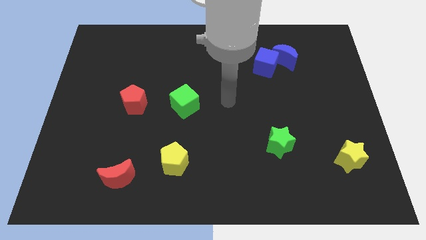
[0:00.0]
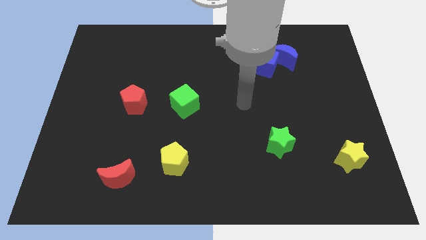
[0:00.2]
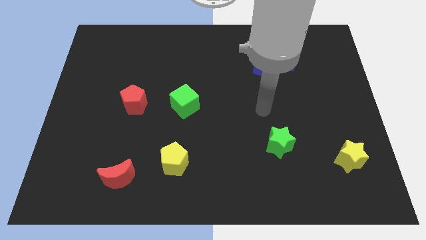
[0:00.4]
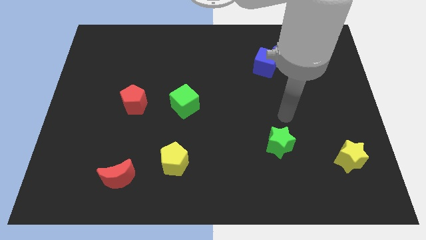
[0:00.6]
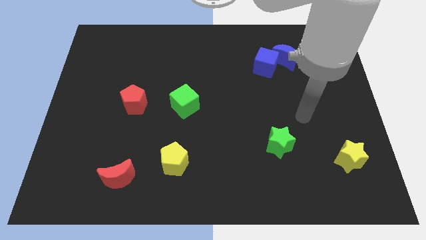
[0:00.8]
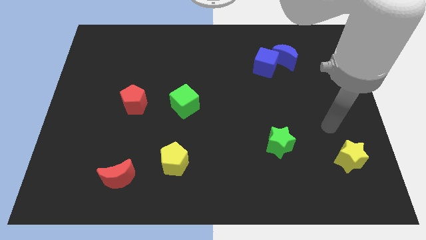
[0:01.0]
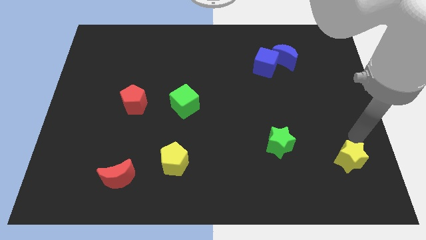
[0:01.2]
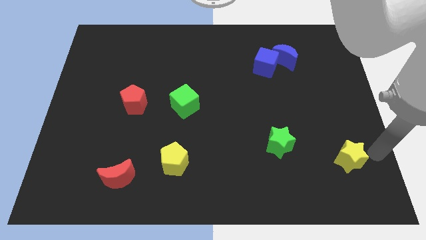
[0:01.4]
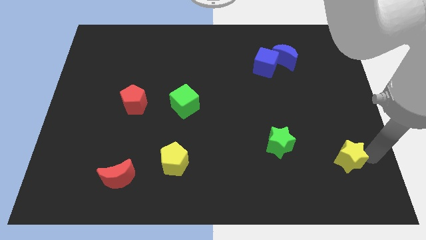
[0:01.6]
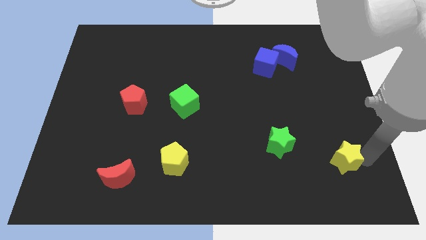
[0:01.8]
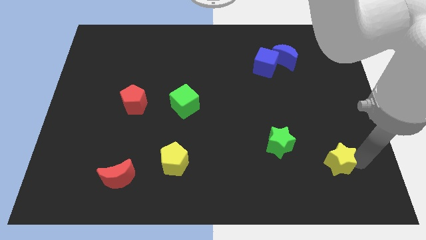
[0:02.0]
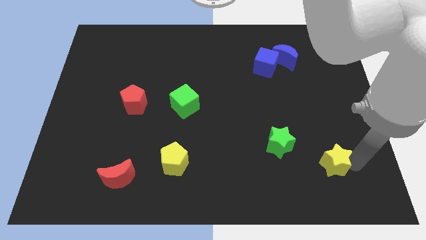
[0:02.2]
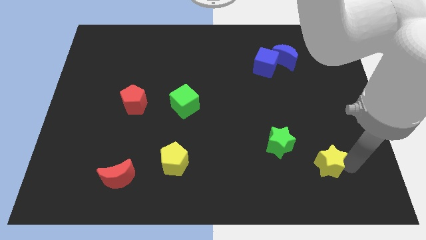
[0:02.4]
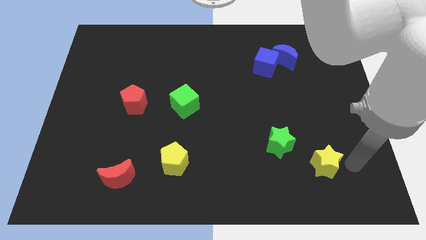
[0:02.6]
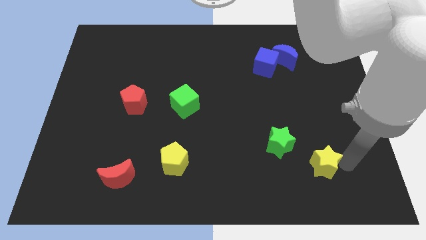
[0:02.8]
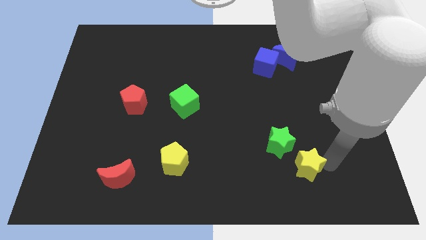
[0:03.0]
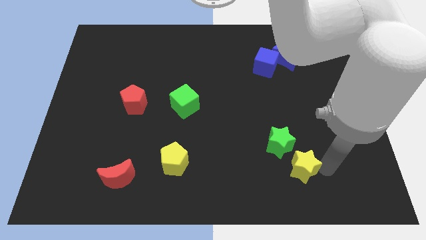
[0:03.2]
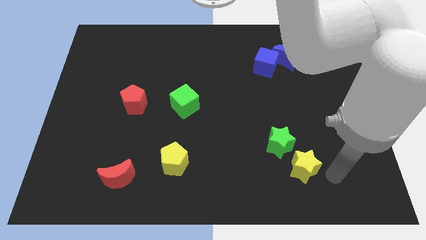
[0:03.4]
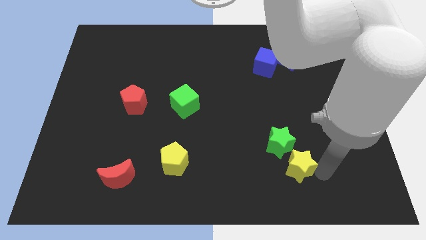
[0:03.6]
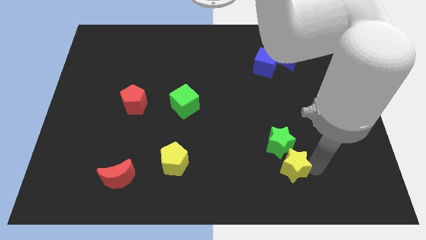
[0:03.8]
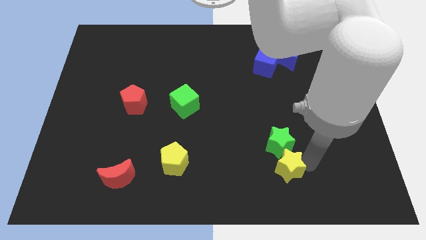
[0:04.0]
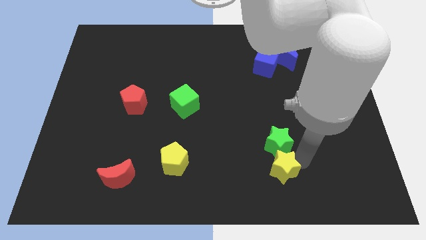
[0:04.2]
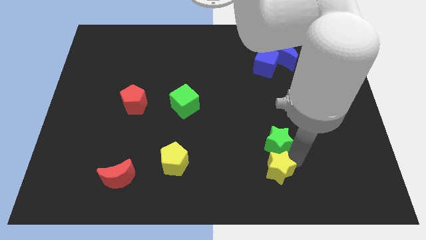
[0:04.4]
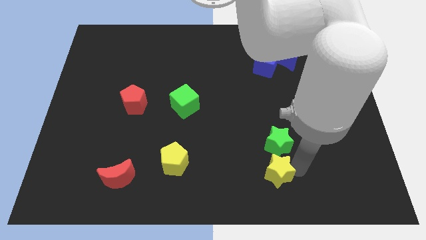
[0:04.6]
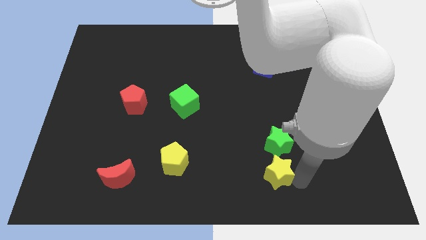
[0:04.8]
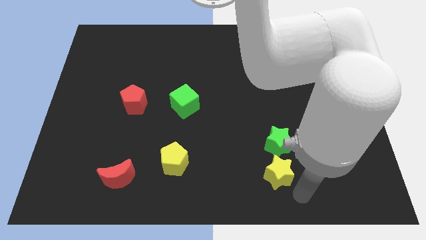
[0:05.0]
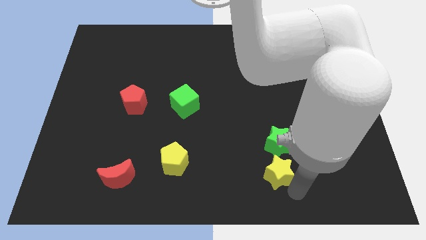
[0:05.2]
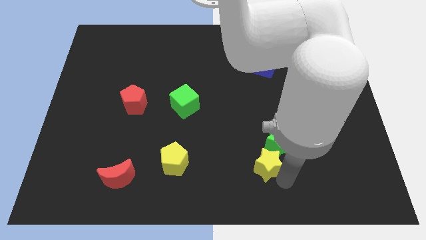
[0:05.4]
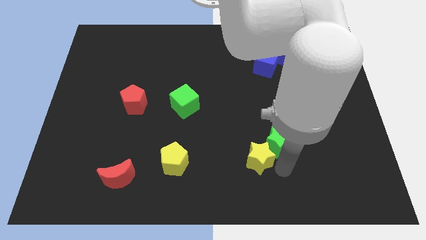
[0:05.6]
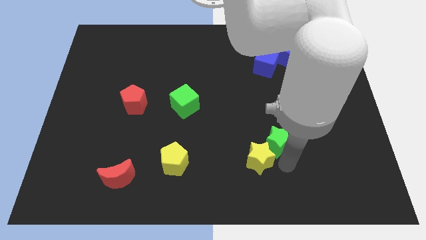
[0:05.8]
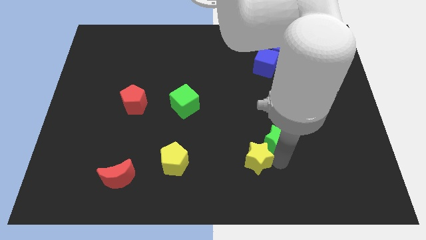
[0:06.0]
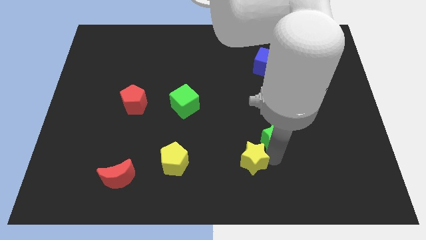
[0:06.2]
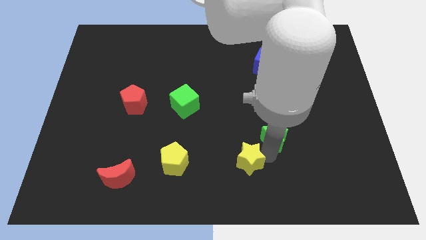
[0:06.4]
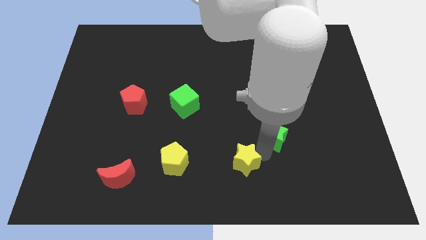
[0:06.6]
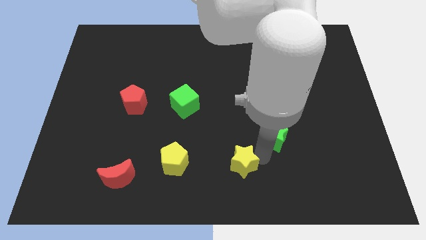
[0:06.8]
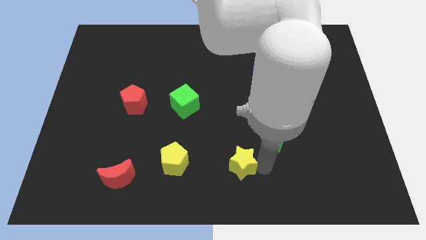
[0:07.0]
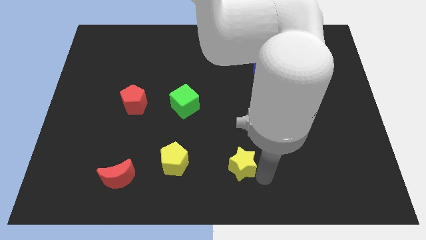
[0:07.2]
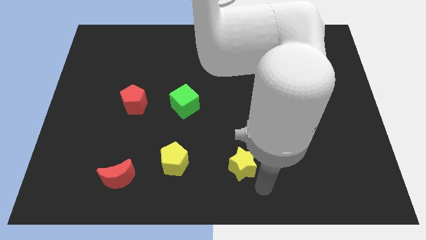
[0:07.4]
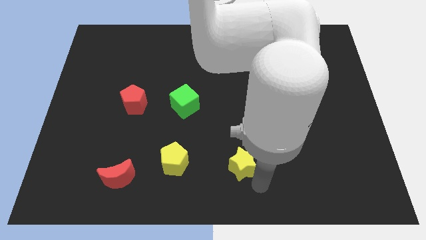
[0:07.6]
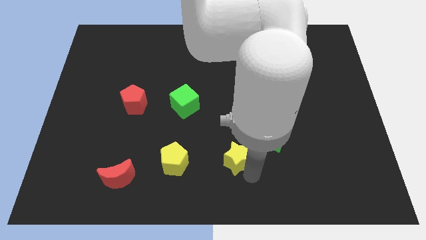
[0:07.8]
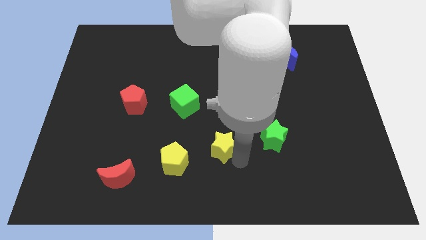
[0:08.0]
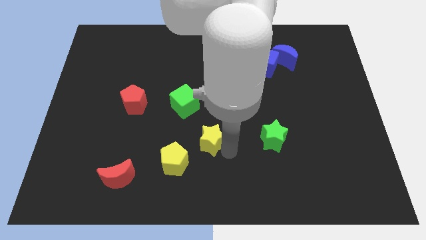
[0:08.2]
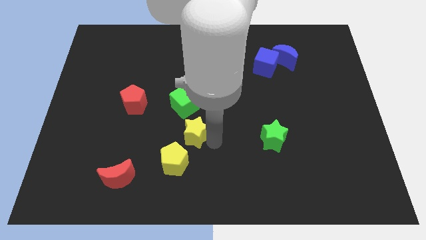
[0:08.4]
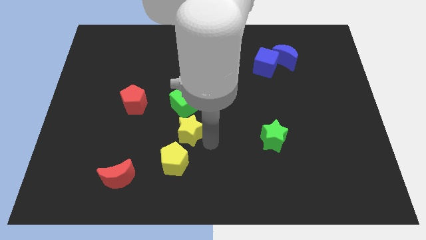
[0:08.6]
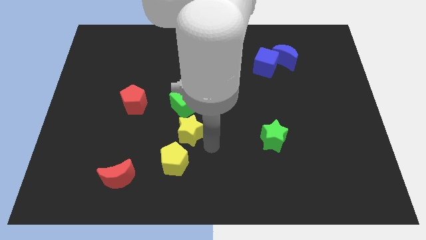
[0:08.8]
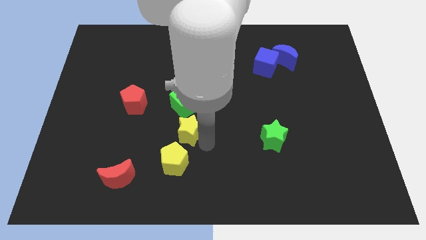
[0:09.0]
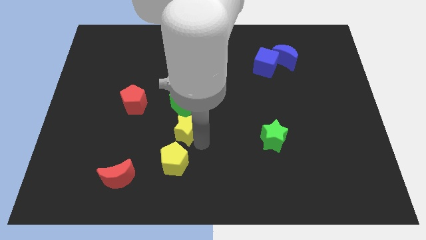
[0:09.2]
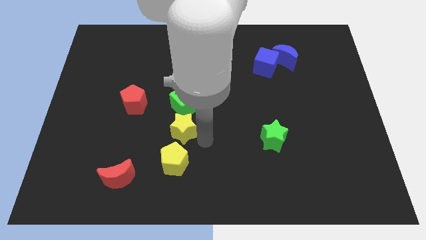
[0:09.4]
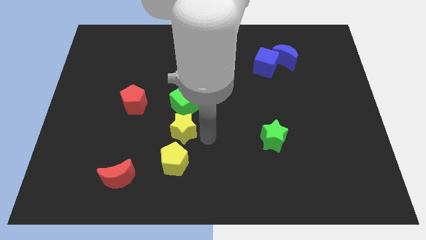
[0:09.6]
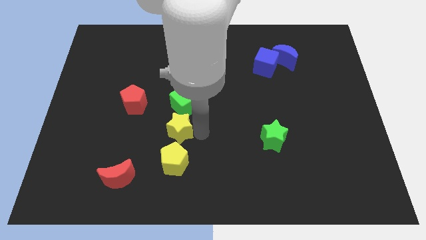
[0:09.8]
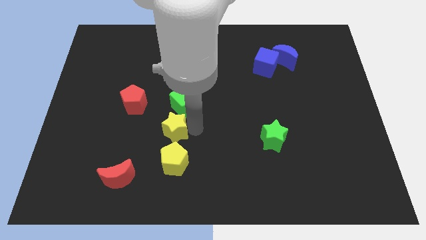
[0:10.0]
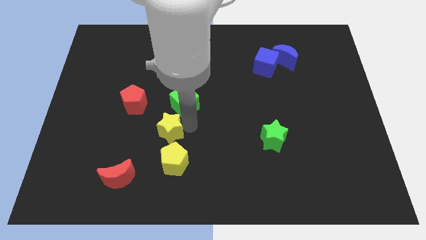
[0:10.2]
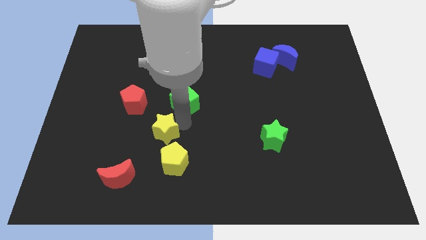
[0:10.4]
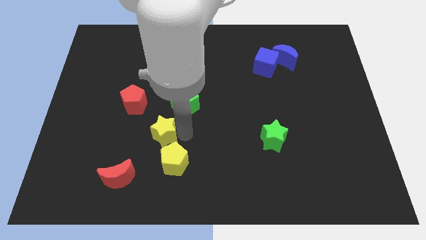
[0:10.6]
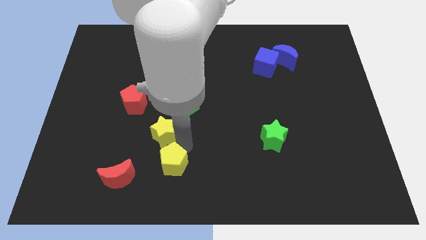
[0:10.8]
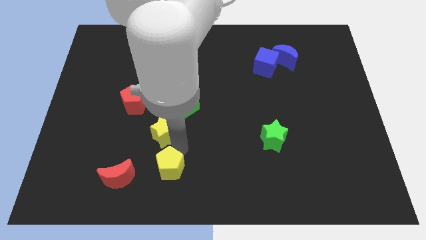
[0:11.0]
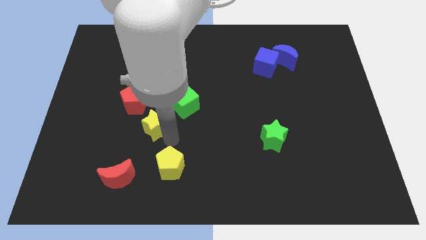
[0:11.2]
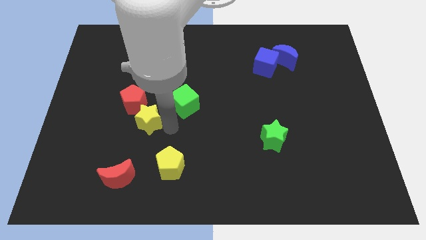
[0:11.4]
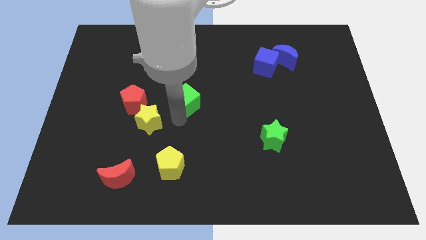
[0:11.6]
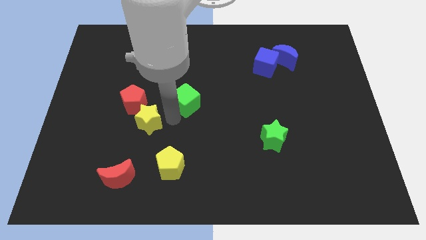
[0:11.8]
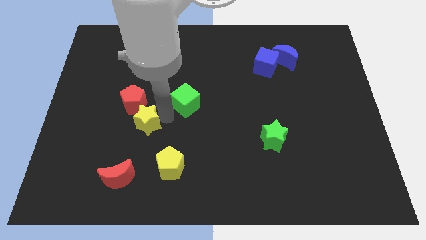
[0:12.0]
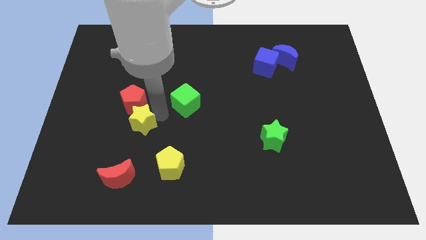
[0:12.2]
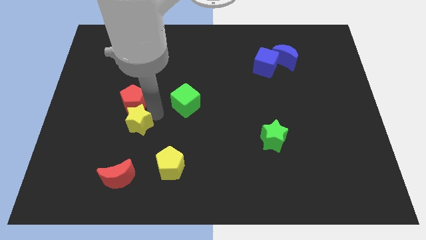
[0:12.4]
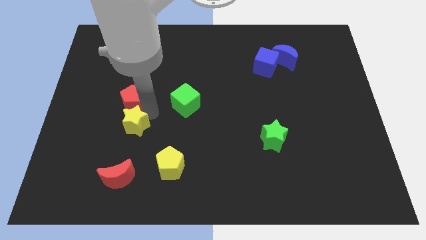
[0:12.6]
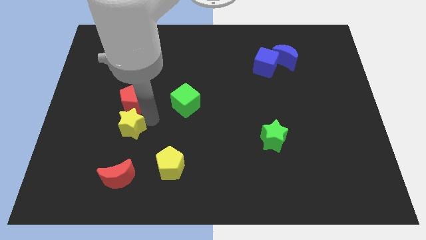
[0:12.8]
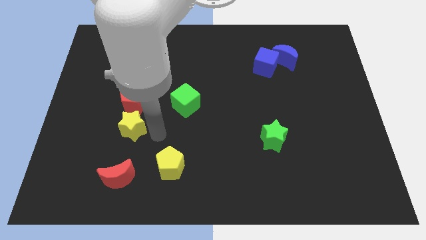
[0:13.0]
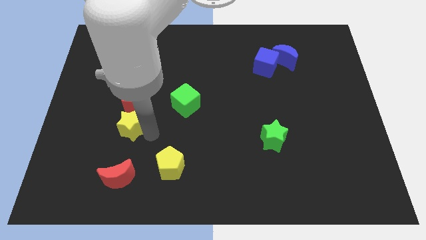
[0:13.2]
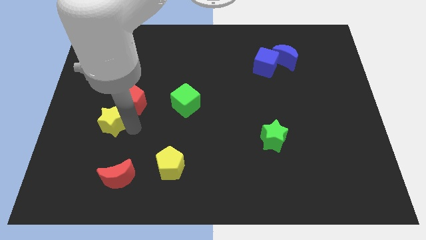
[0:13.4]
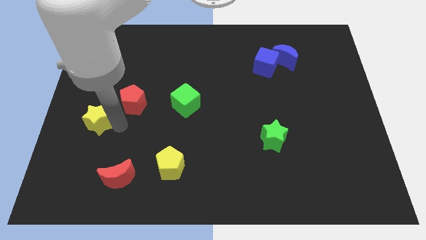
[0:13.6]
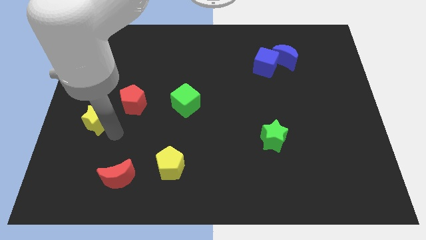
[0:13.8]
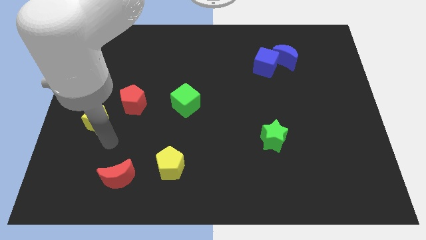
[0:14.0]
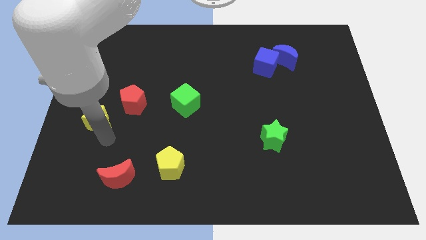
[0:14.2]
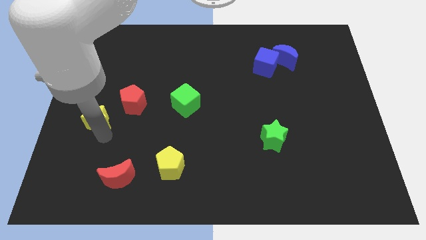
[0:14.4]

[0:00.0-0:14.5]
push the yellow star to the center left
